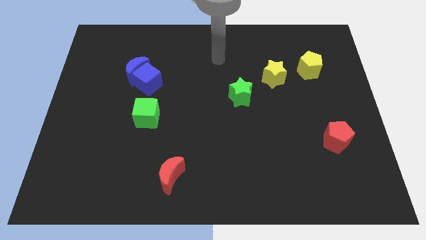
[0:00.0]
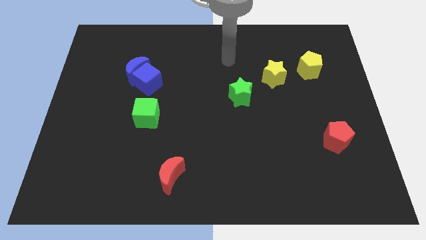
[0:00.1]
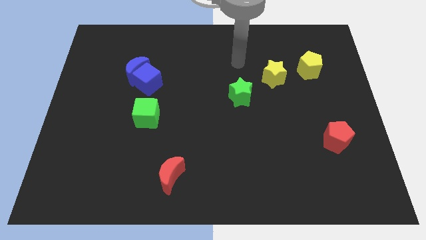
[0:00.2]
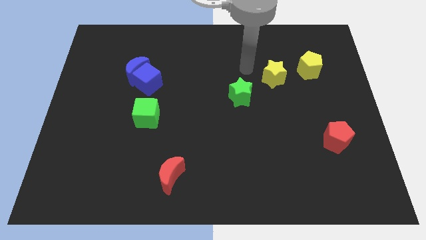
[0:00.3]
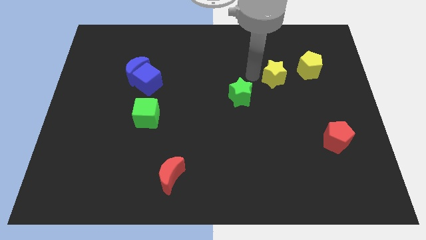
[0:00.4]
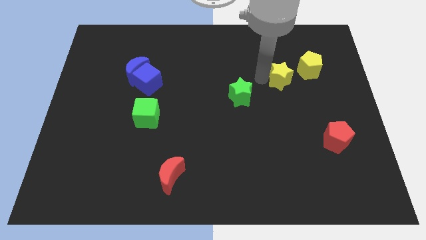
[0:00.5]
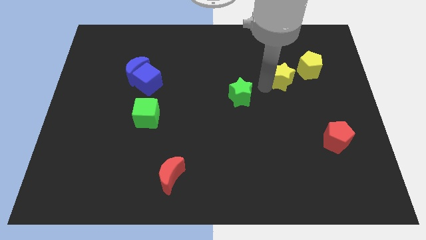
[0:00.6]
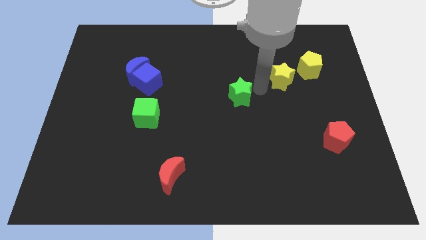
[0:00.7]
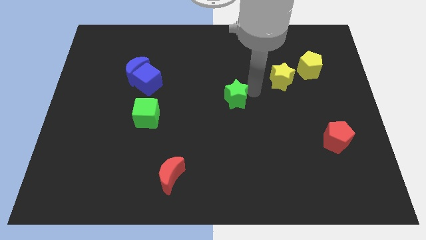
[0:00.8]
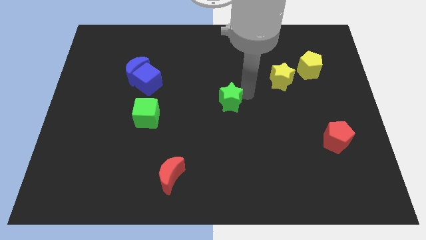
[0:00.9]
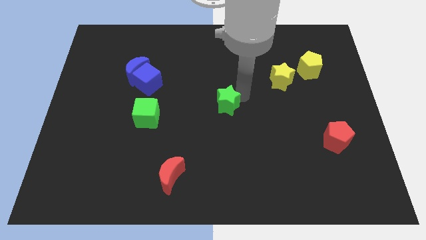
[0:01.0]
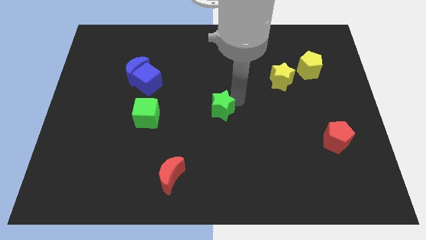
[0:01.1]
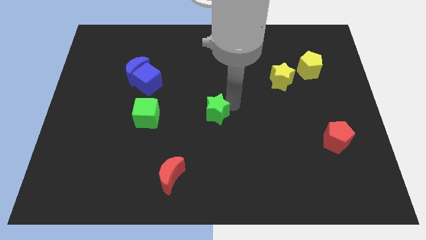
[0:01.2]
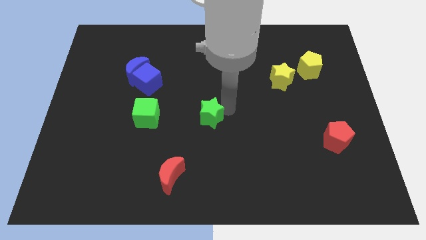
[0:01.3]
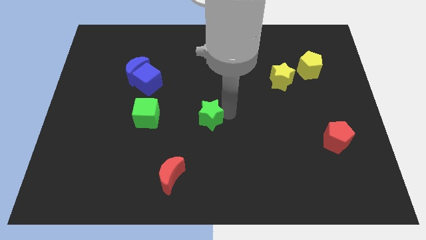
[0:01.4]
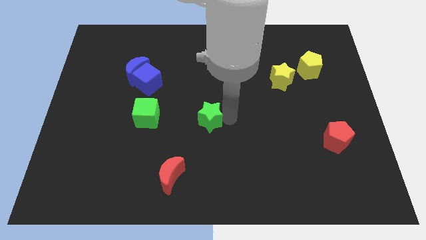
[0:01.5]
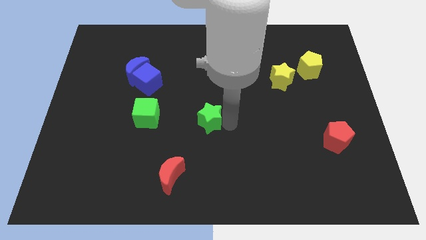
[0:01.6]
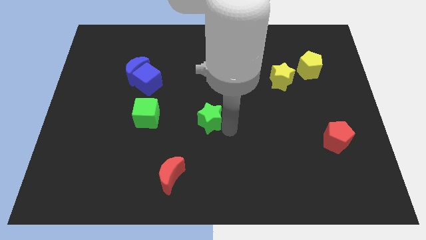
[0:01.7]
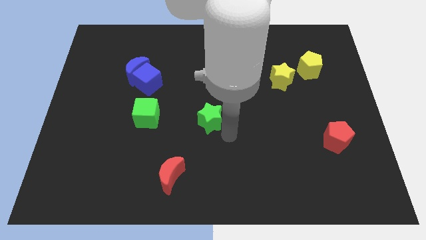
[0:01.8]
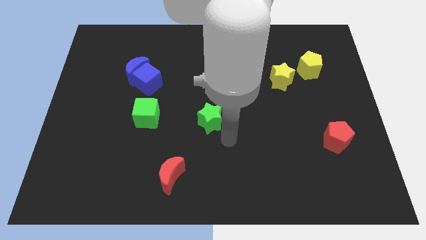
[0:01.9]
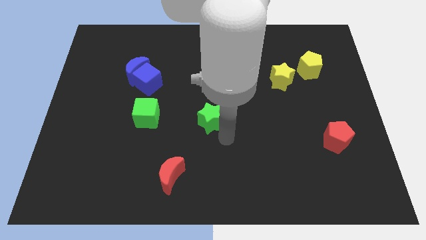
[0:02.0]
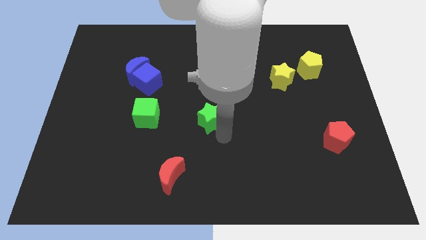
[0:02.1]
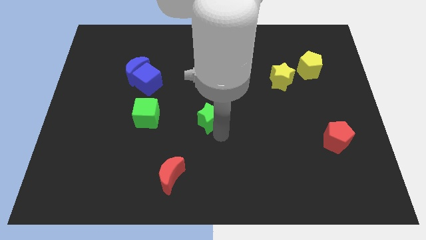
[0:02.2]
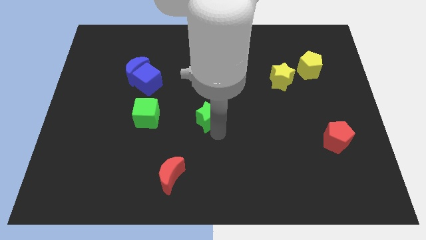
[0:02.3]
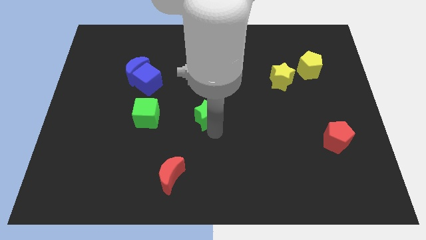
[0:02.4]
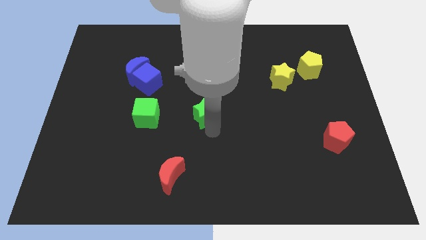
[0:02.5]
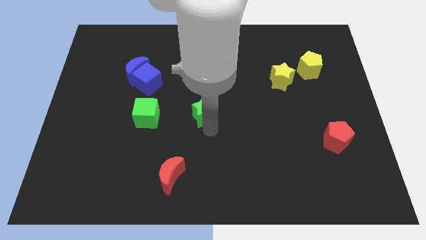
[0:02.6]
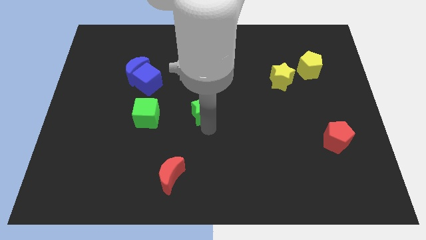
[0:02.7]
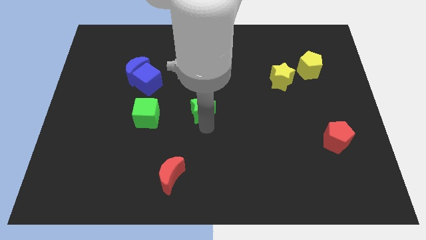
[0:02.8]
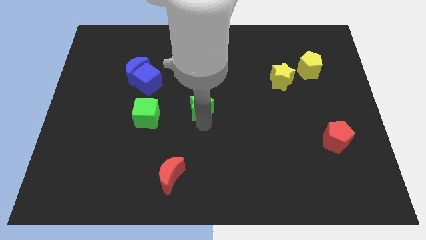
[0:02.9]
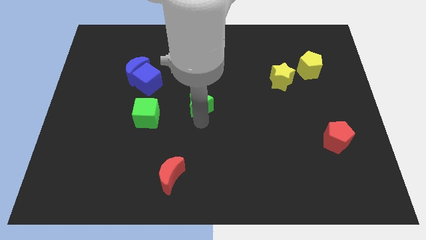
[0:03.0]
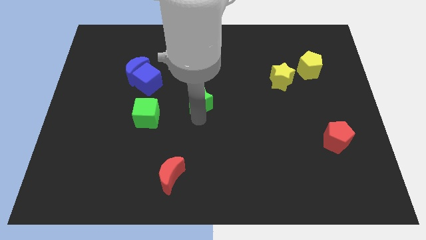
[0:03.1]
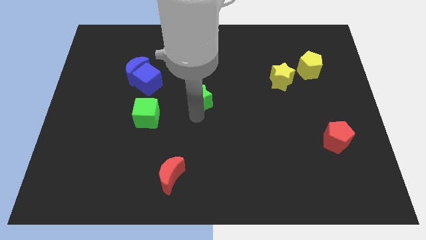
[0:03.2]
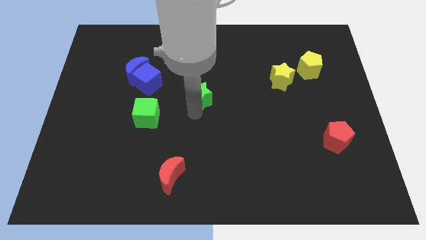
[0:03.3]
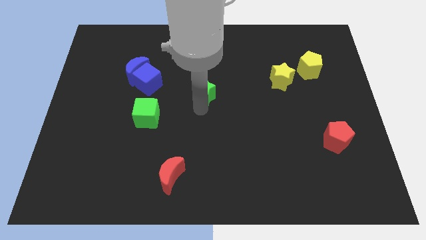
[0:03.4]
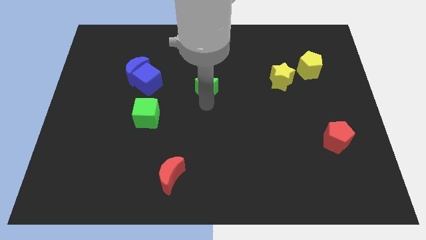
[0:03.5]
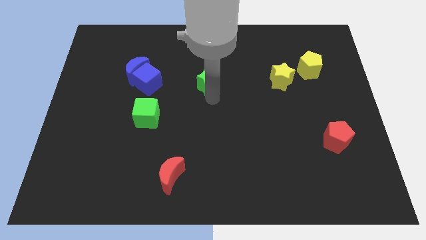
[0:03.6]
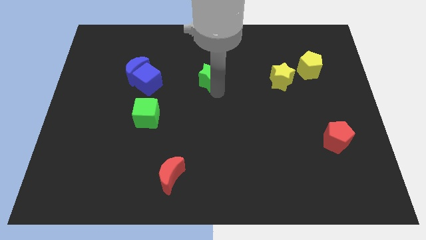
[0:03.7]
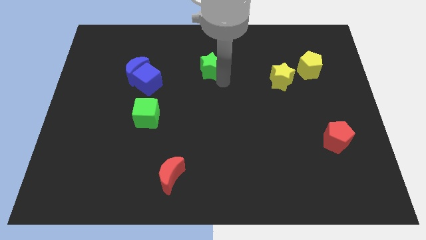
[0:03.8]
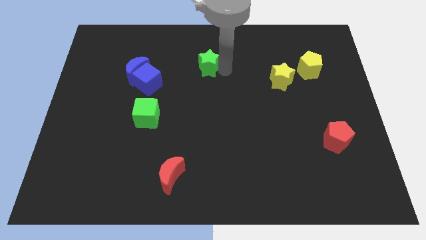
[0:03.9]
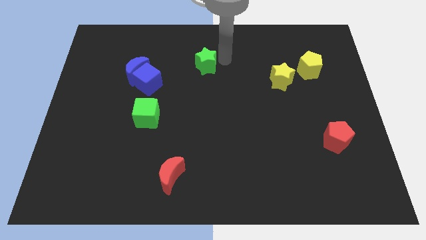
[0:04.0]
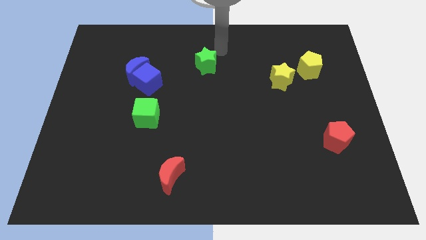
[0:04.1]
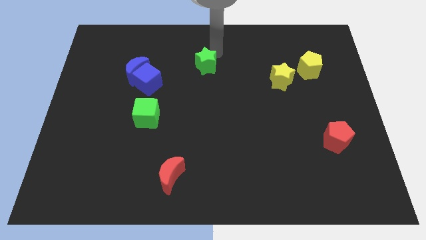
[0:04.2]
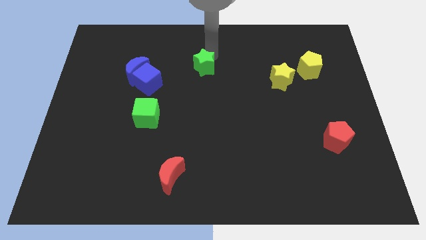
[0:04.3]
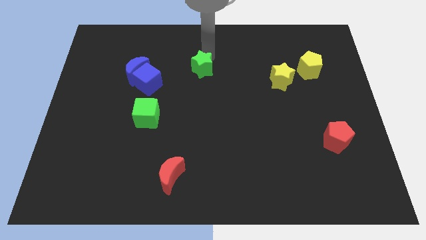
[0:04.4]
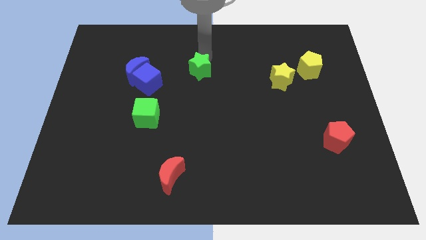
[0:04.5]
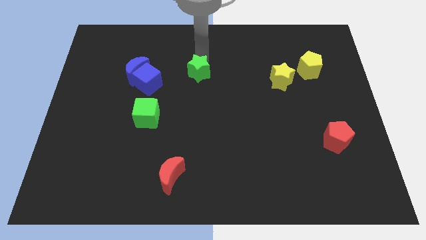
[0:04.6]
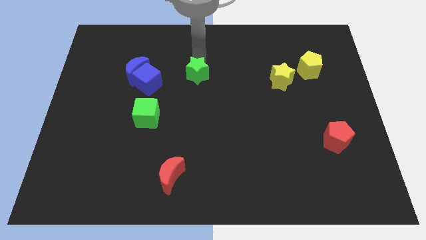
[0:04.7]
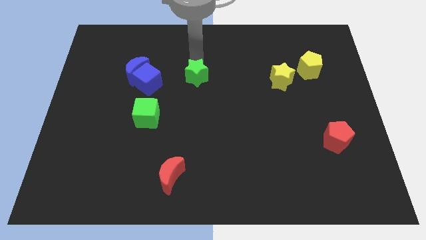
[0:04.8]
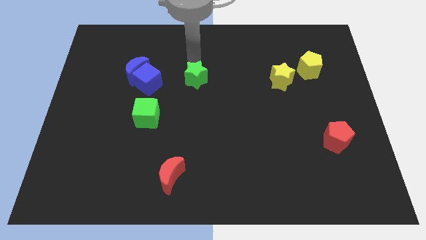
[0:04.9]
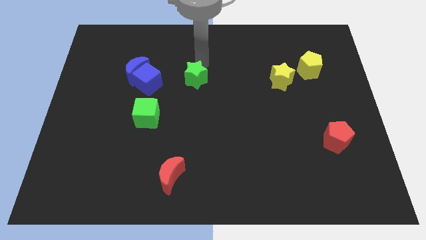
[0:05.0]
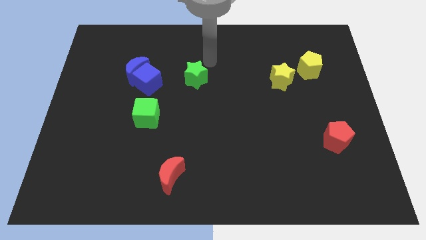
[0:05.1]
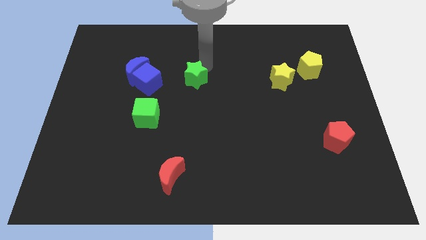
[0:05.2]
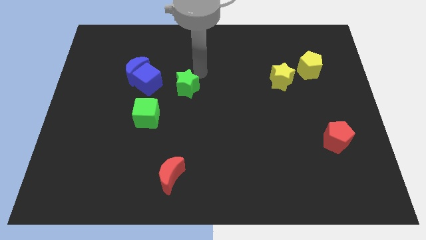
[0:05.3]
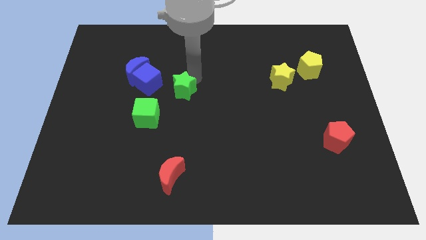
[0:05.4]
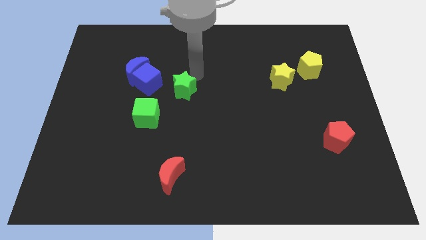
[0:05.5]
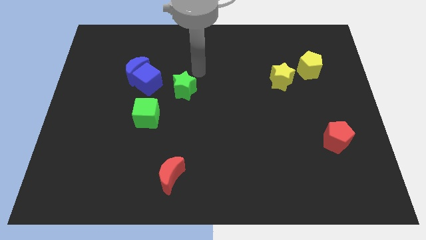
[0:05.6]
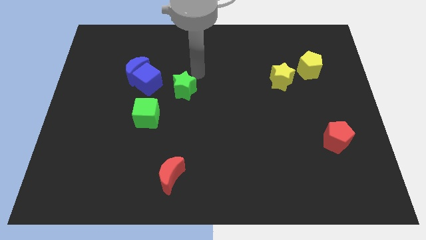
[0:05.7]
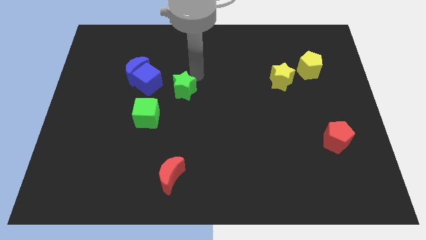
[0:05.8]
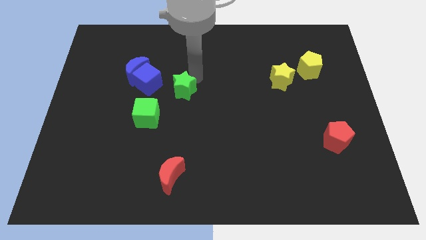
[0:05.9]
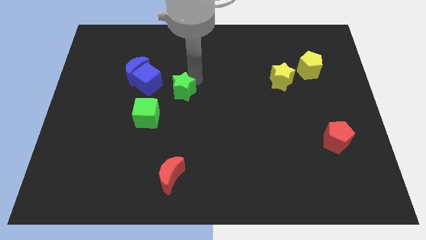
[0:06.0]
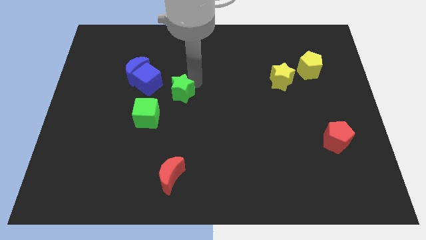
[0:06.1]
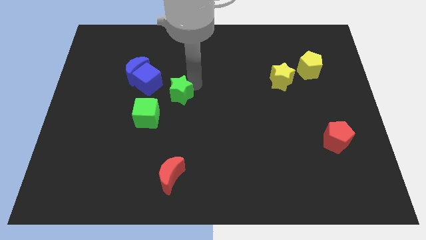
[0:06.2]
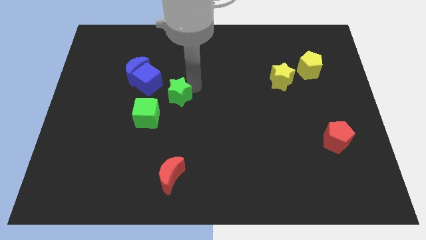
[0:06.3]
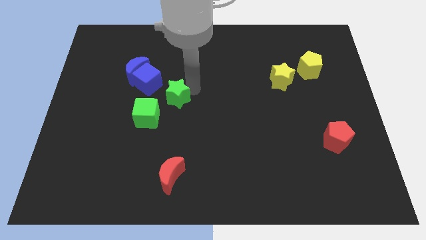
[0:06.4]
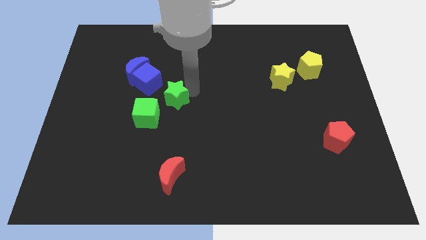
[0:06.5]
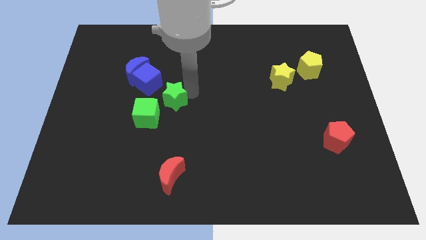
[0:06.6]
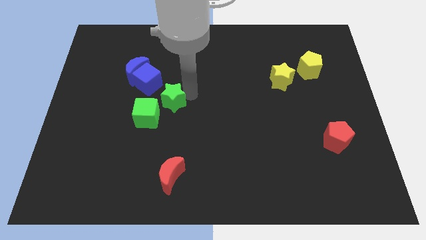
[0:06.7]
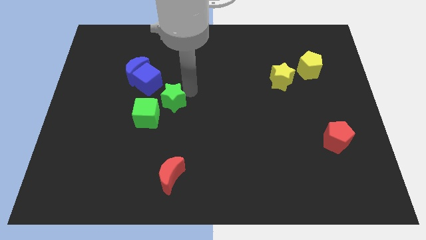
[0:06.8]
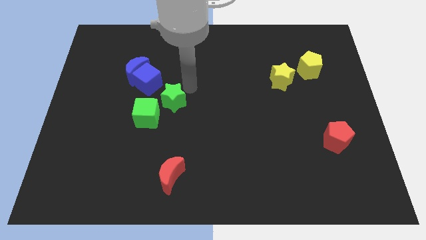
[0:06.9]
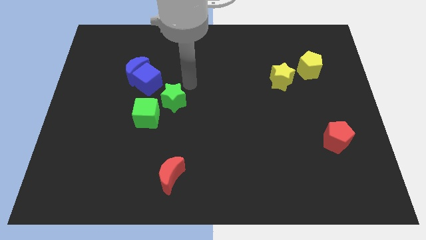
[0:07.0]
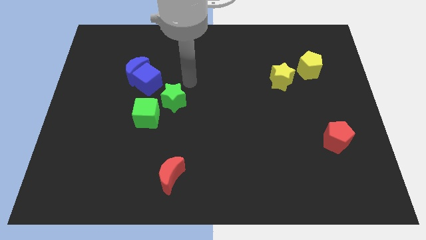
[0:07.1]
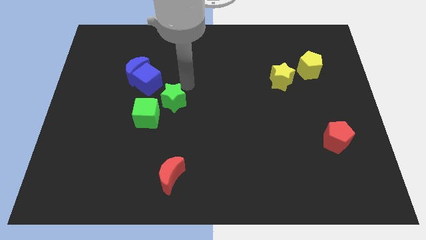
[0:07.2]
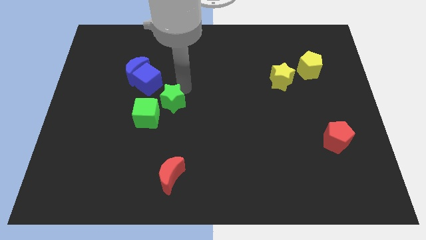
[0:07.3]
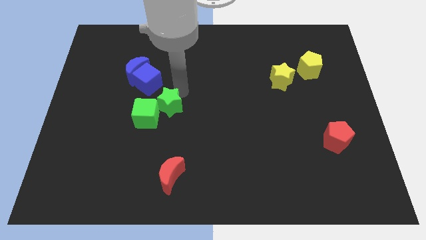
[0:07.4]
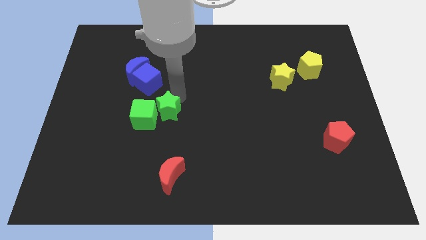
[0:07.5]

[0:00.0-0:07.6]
put the green star to the green cube
